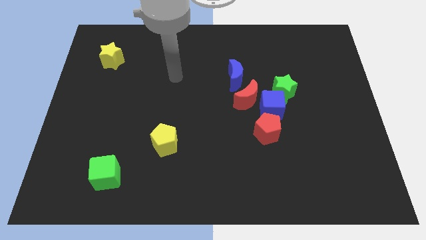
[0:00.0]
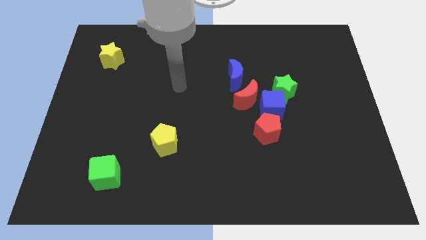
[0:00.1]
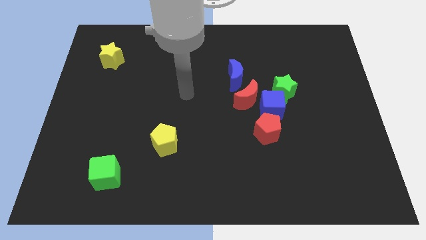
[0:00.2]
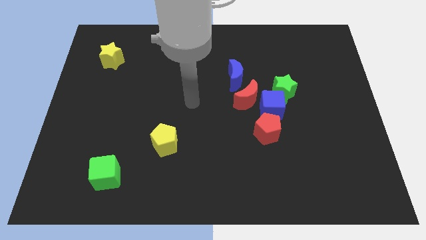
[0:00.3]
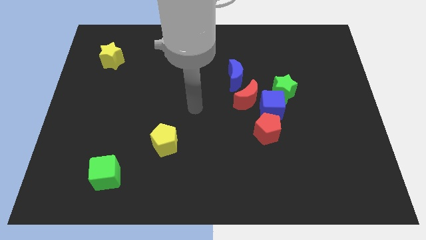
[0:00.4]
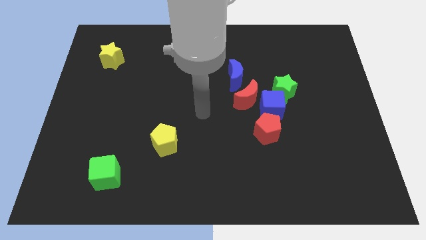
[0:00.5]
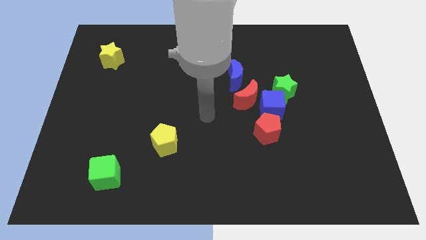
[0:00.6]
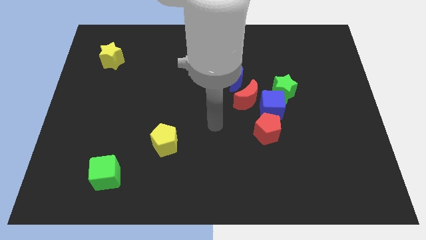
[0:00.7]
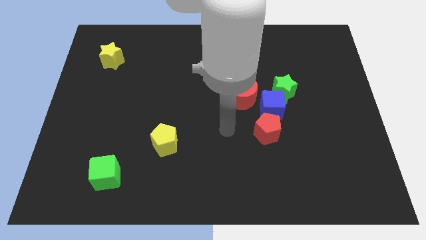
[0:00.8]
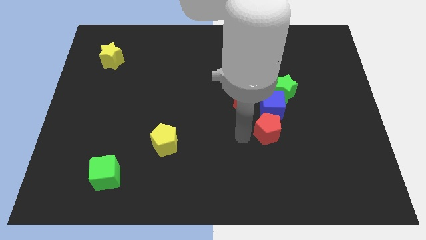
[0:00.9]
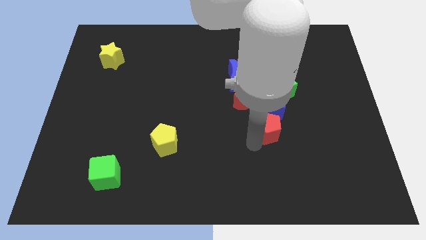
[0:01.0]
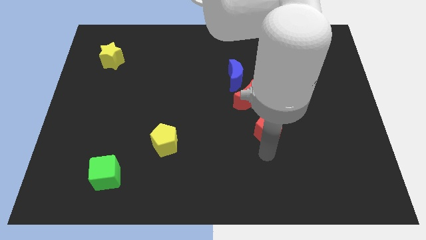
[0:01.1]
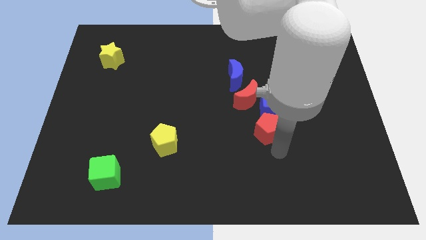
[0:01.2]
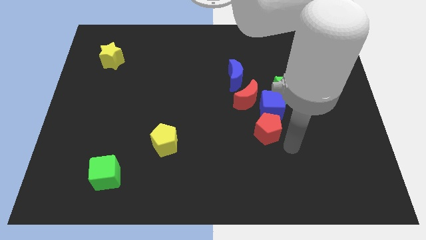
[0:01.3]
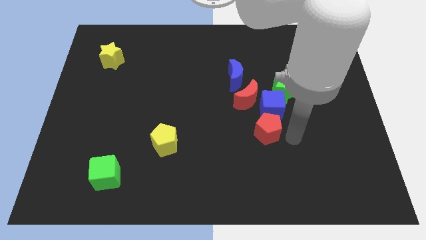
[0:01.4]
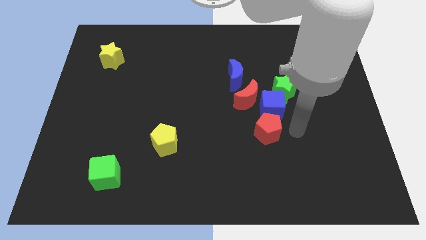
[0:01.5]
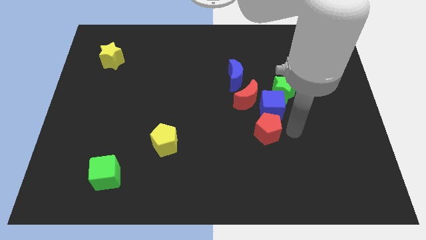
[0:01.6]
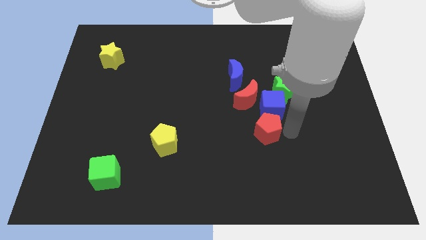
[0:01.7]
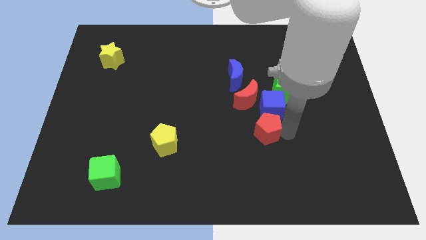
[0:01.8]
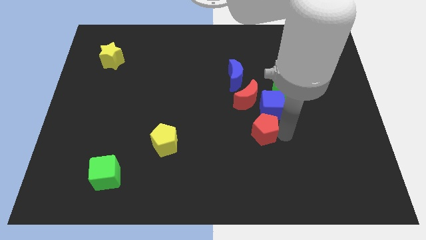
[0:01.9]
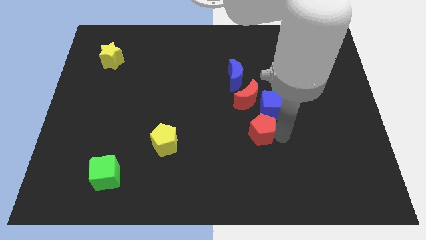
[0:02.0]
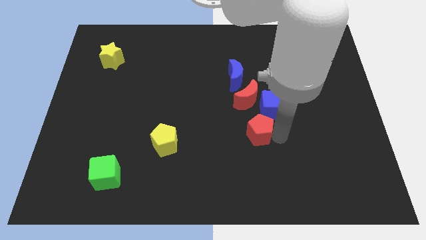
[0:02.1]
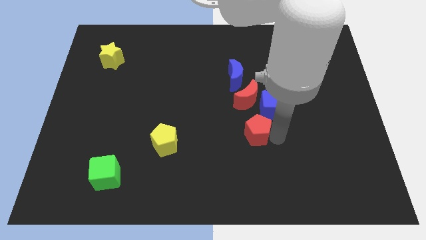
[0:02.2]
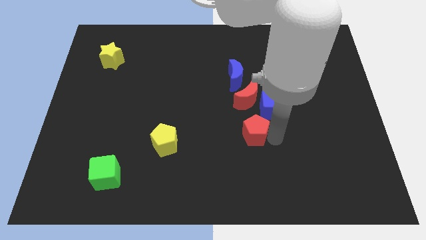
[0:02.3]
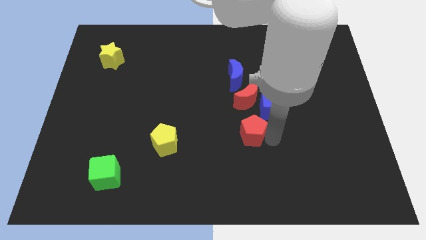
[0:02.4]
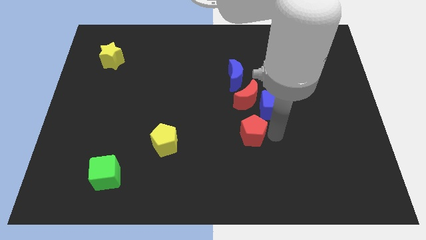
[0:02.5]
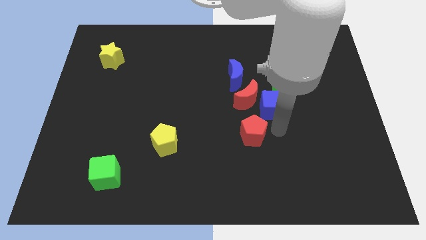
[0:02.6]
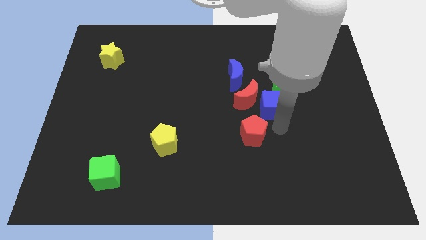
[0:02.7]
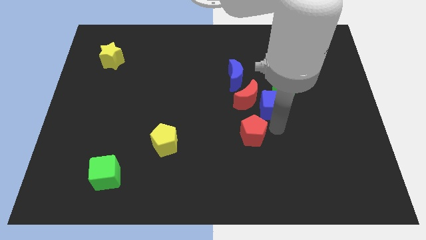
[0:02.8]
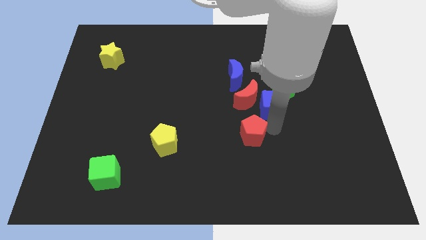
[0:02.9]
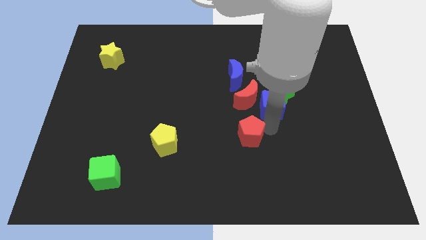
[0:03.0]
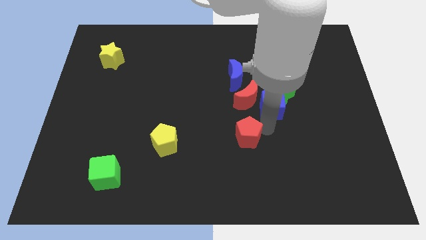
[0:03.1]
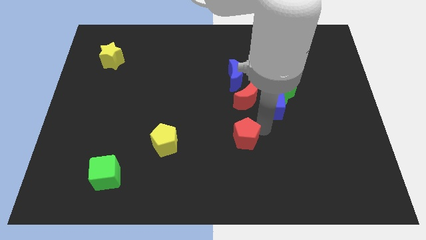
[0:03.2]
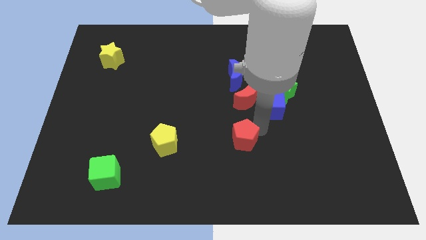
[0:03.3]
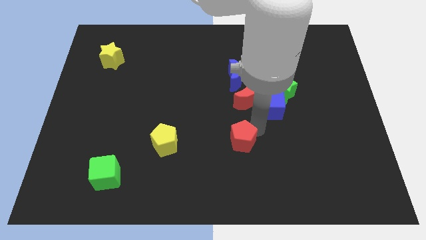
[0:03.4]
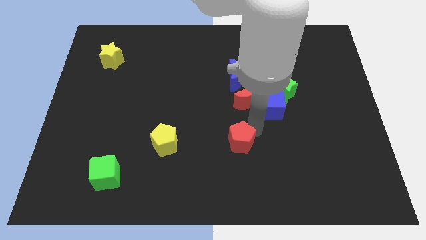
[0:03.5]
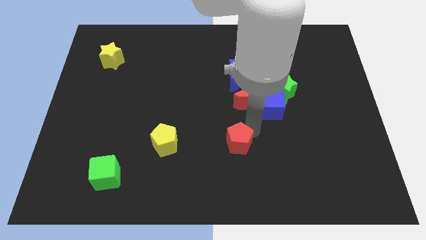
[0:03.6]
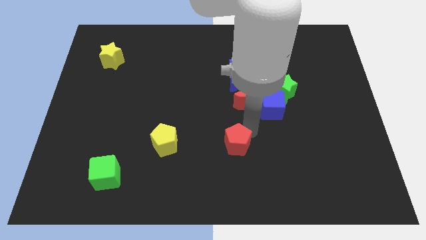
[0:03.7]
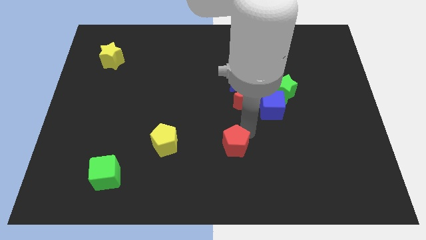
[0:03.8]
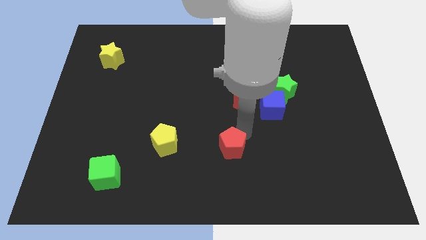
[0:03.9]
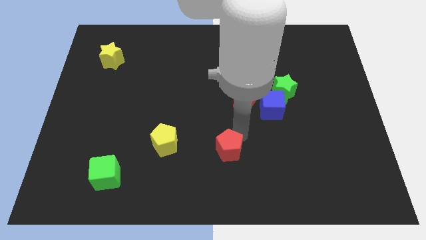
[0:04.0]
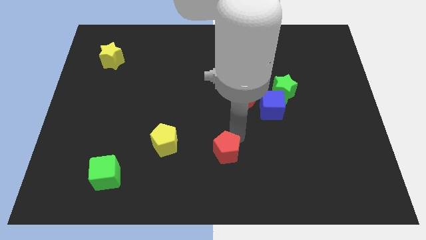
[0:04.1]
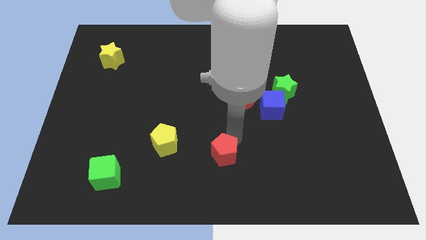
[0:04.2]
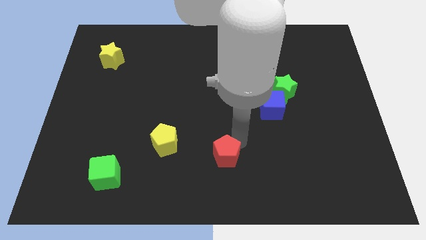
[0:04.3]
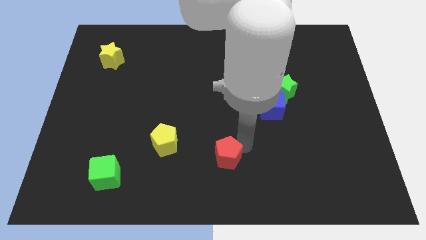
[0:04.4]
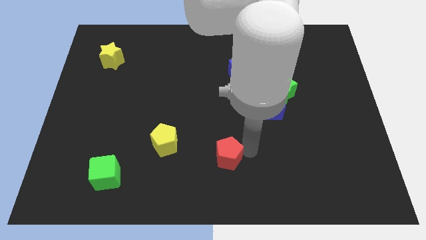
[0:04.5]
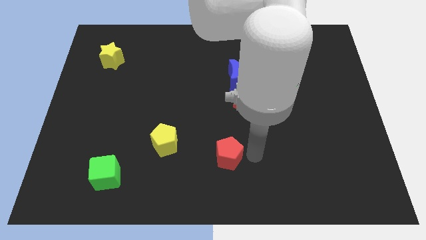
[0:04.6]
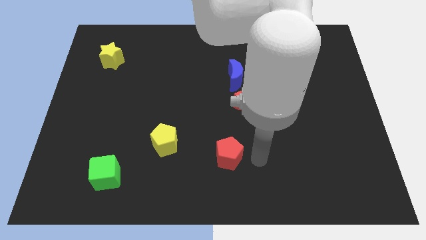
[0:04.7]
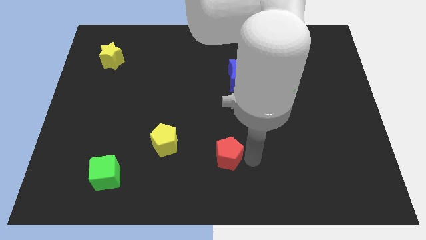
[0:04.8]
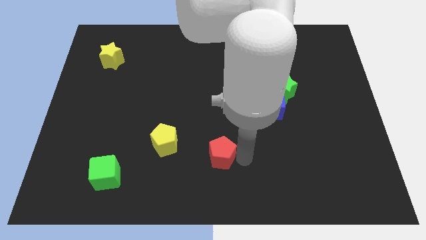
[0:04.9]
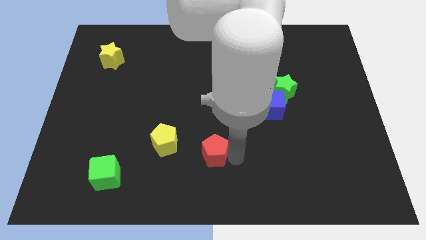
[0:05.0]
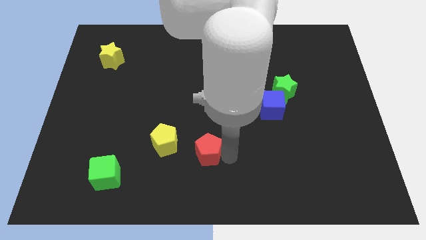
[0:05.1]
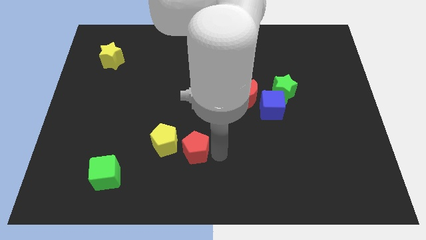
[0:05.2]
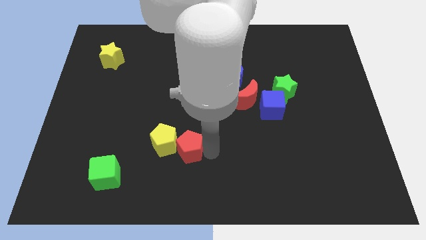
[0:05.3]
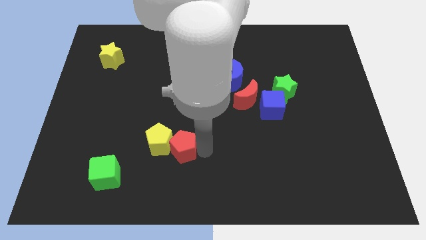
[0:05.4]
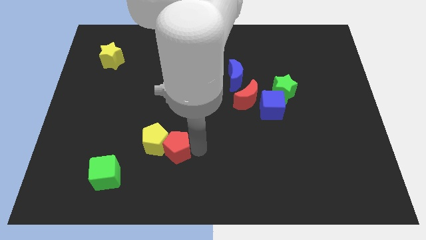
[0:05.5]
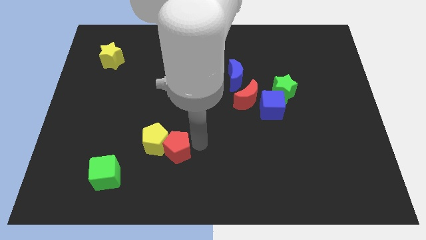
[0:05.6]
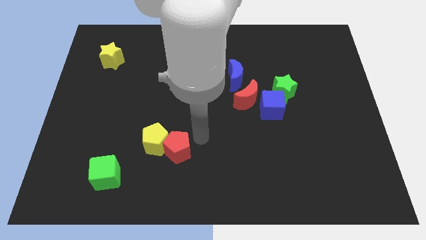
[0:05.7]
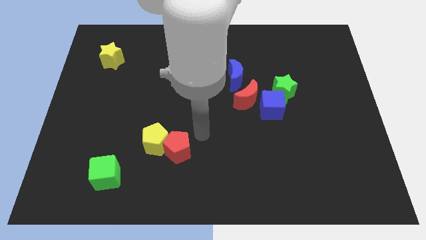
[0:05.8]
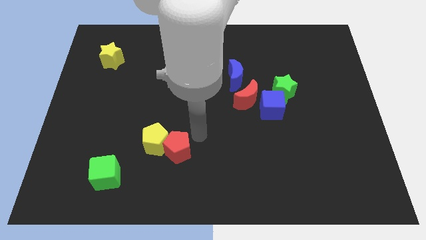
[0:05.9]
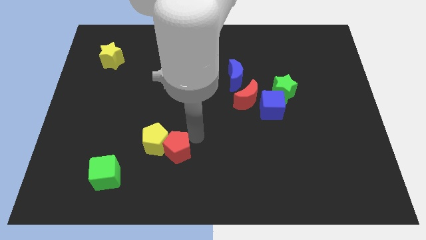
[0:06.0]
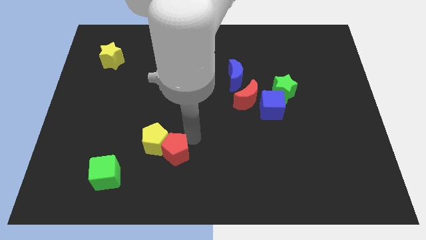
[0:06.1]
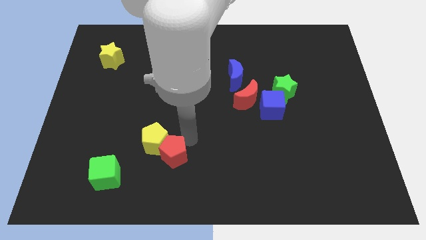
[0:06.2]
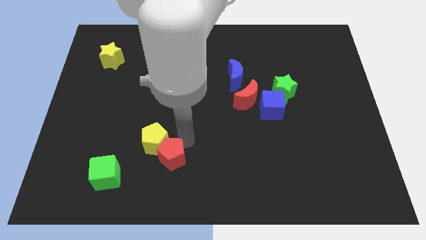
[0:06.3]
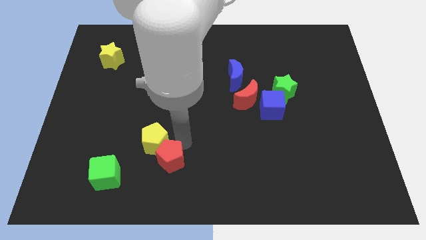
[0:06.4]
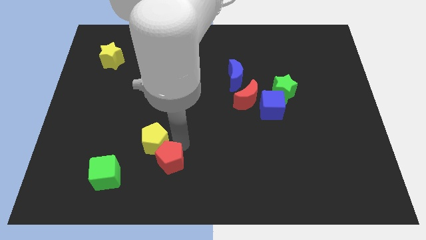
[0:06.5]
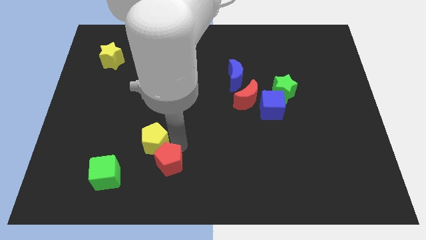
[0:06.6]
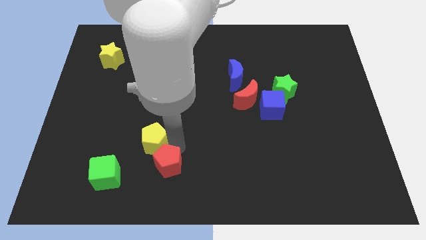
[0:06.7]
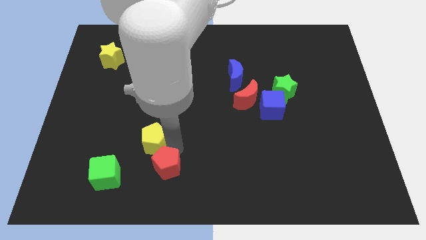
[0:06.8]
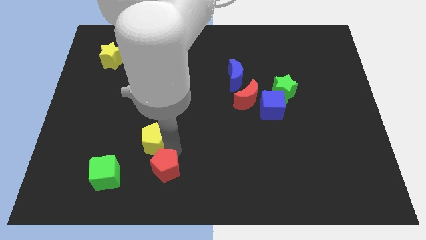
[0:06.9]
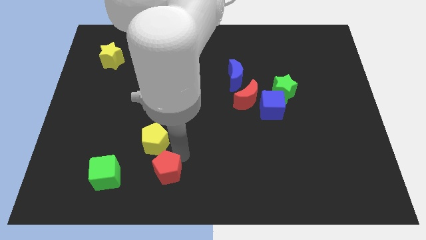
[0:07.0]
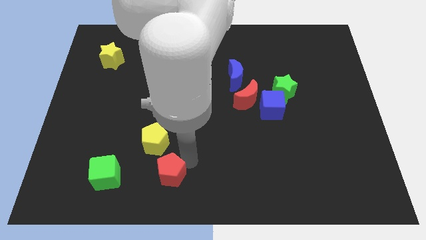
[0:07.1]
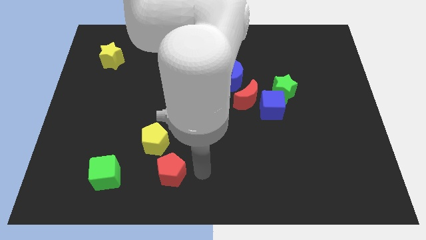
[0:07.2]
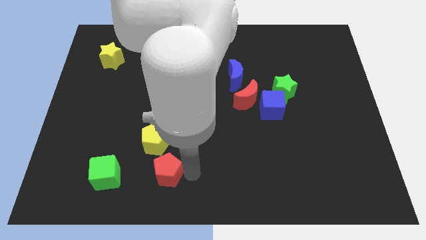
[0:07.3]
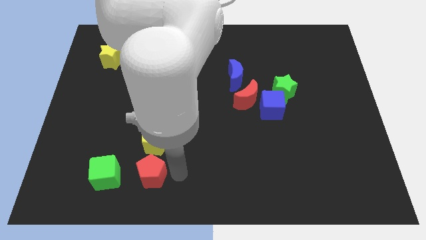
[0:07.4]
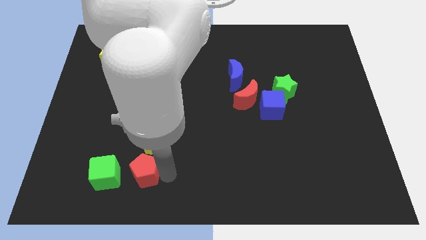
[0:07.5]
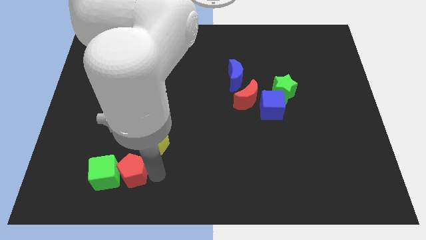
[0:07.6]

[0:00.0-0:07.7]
slide the red pentagon next to the green cube

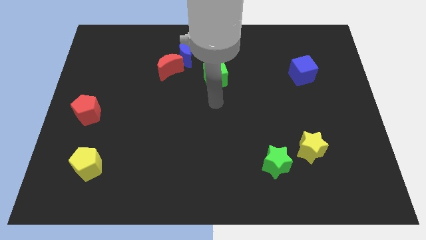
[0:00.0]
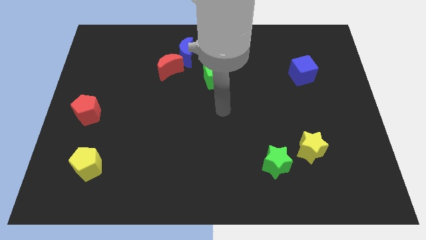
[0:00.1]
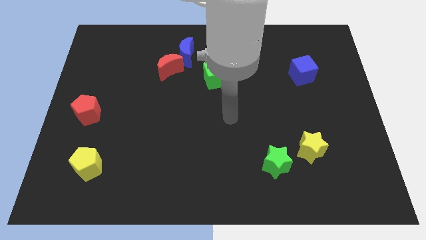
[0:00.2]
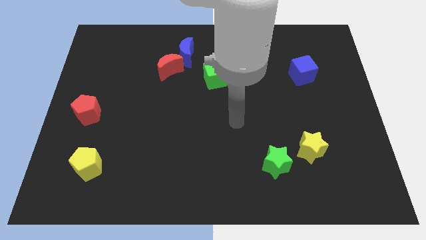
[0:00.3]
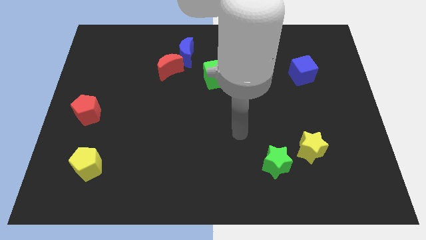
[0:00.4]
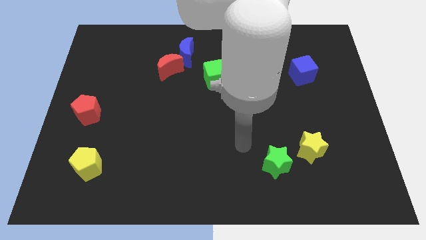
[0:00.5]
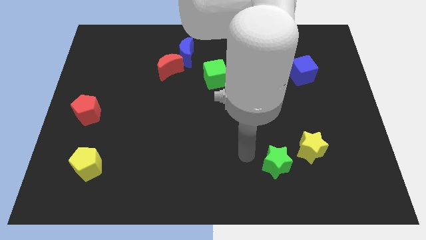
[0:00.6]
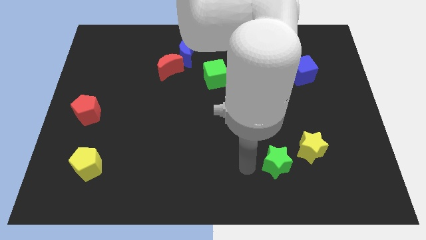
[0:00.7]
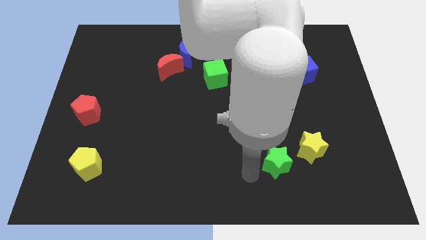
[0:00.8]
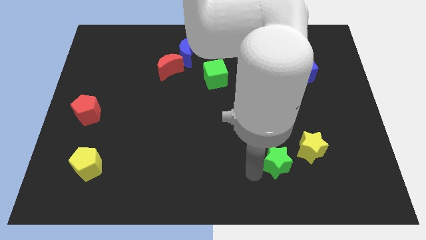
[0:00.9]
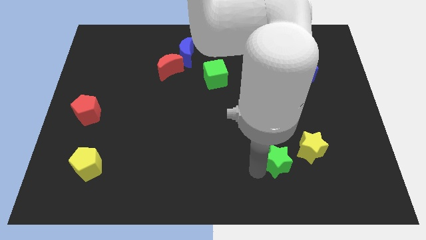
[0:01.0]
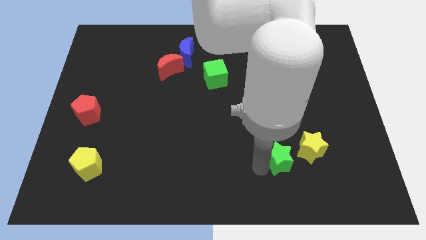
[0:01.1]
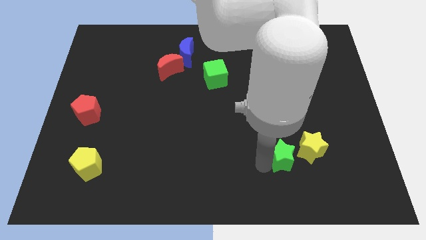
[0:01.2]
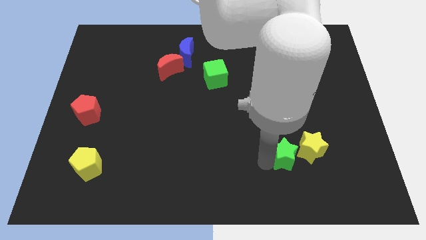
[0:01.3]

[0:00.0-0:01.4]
push the green star towards the yellow star
